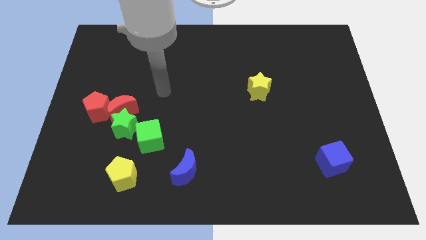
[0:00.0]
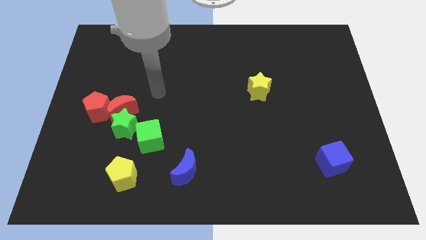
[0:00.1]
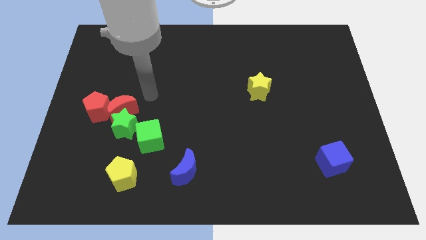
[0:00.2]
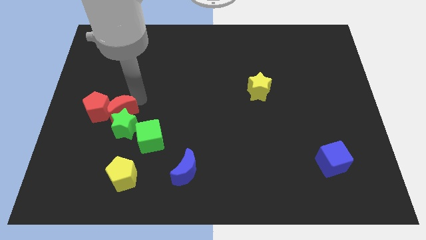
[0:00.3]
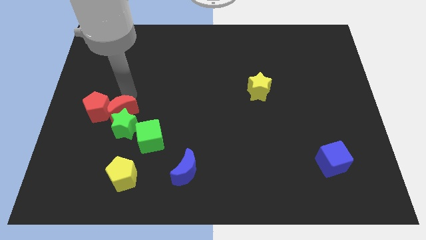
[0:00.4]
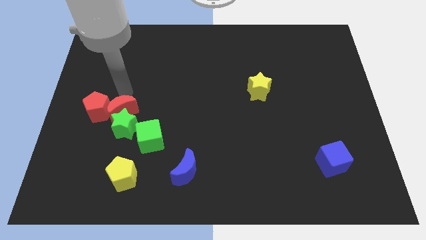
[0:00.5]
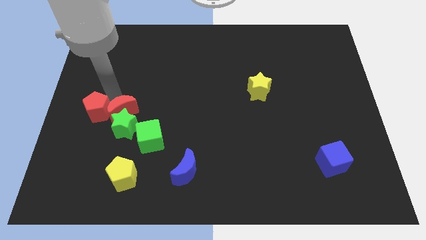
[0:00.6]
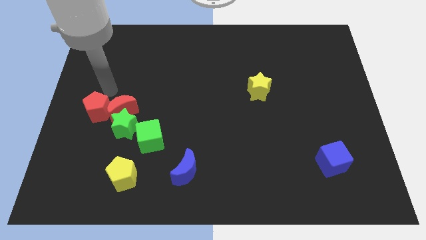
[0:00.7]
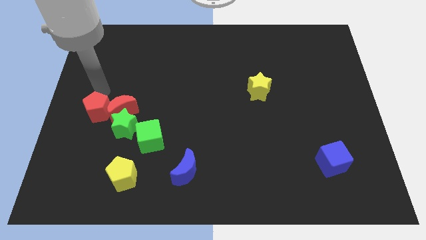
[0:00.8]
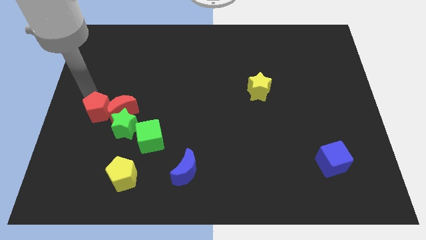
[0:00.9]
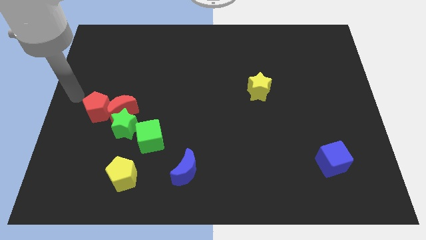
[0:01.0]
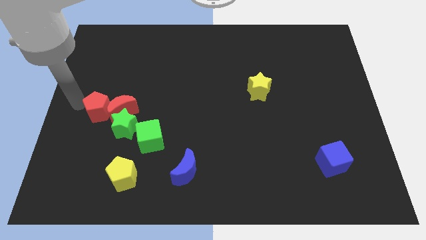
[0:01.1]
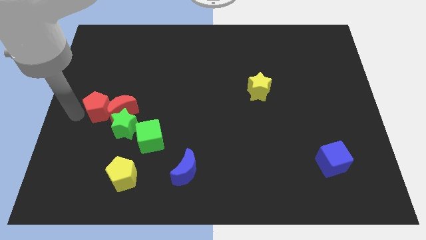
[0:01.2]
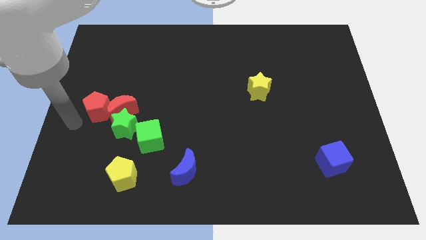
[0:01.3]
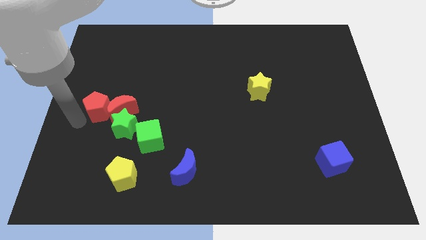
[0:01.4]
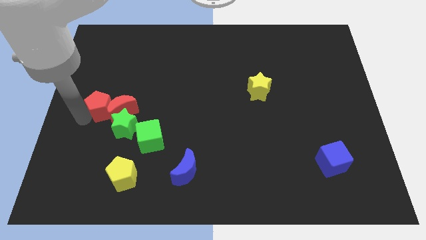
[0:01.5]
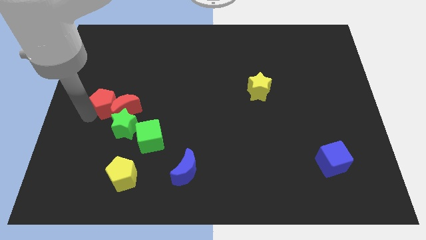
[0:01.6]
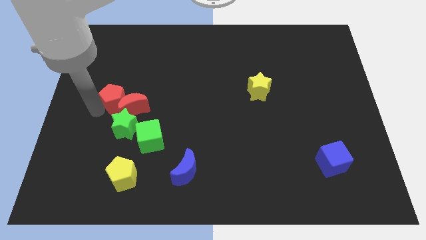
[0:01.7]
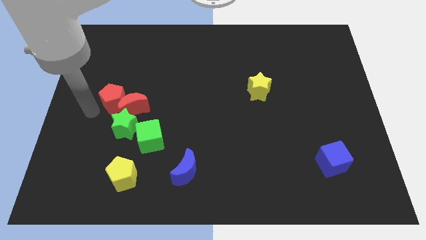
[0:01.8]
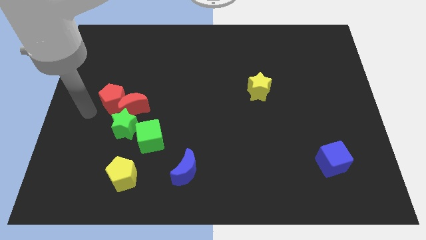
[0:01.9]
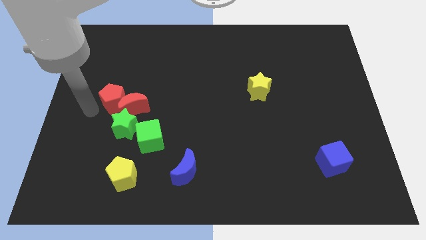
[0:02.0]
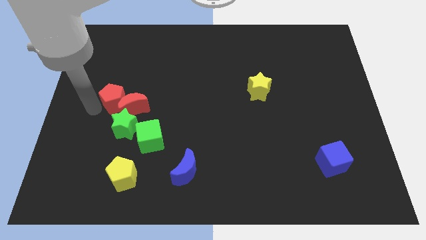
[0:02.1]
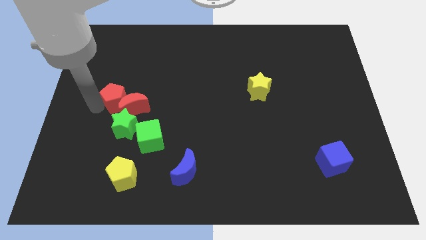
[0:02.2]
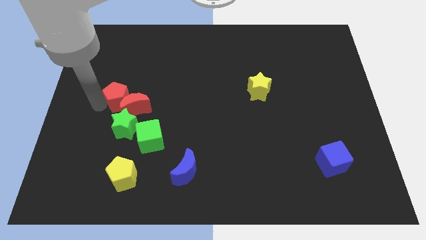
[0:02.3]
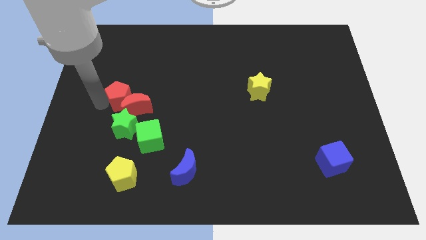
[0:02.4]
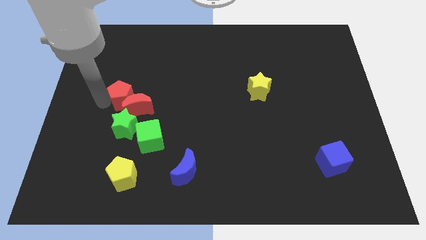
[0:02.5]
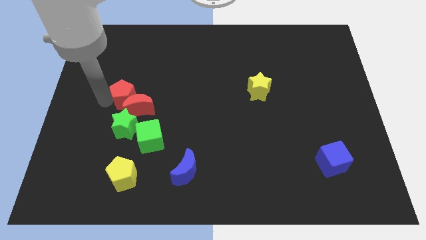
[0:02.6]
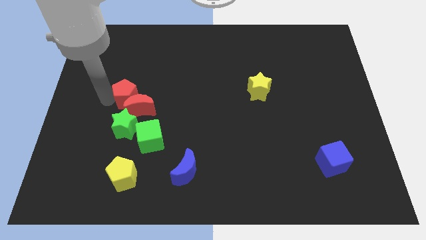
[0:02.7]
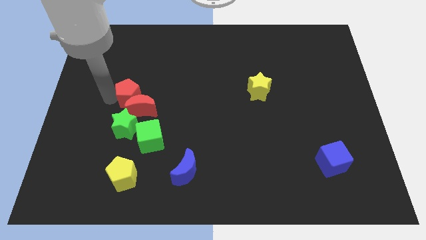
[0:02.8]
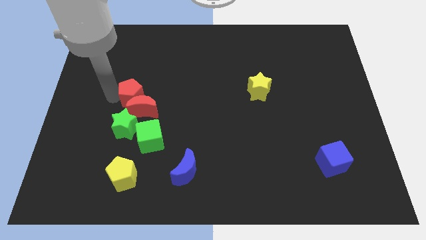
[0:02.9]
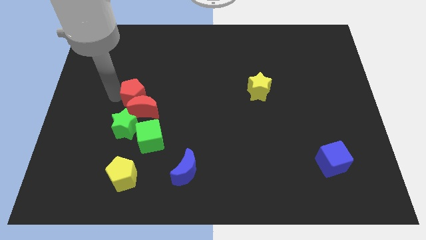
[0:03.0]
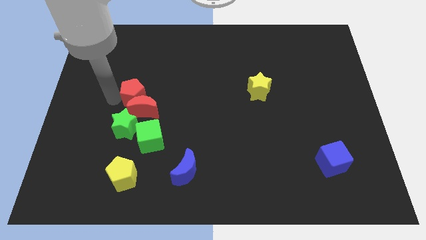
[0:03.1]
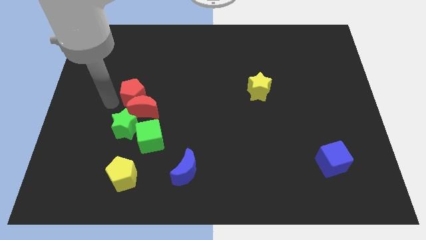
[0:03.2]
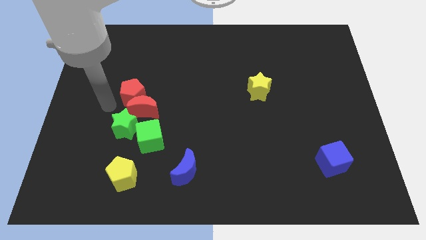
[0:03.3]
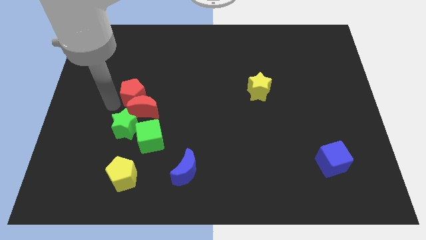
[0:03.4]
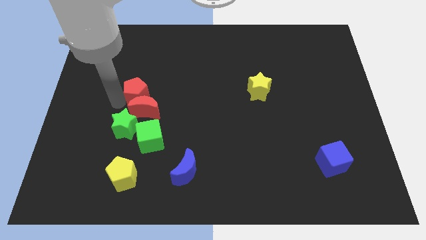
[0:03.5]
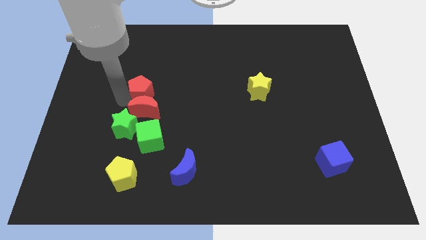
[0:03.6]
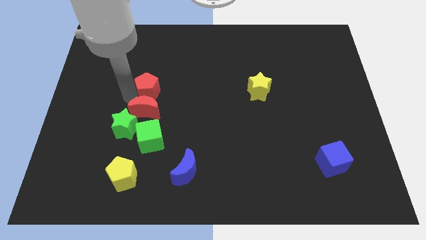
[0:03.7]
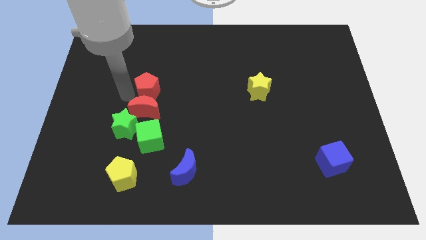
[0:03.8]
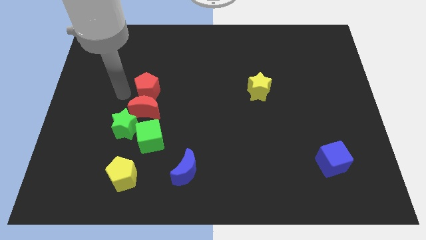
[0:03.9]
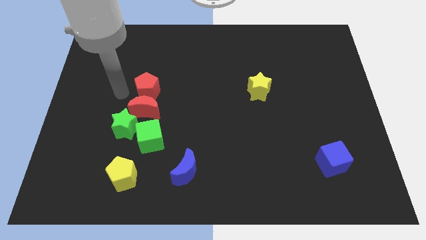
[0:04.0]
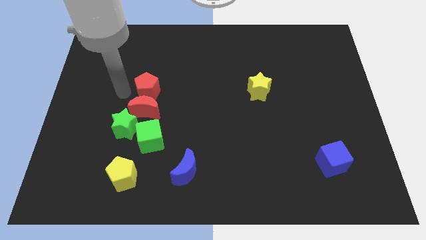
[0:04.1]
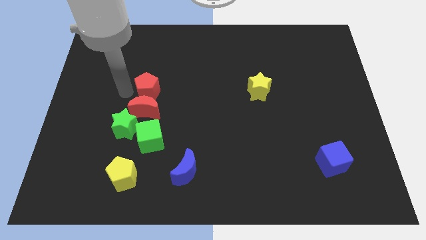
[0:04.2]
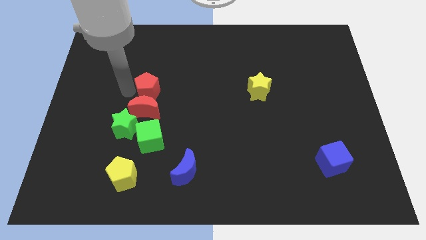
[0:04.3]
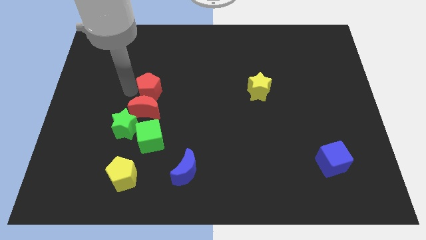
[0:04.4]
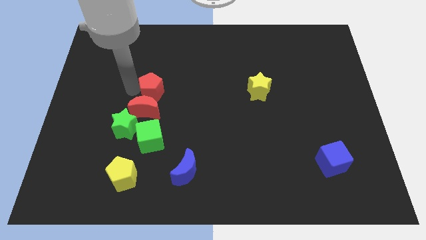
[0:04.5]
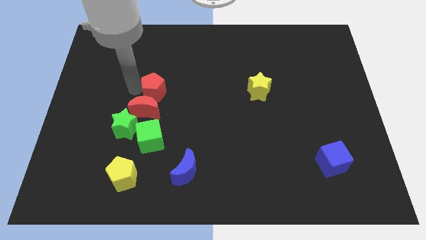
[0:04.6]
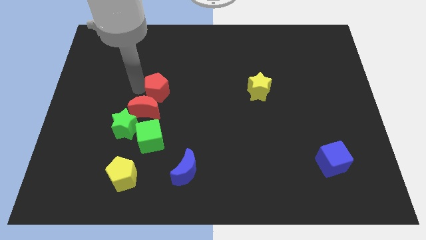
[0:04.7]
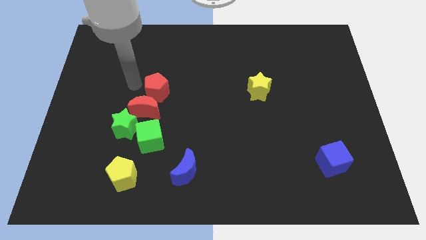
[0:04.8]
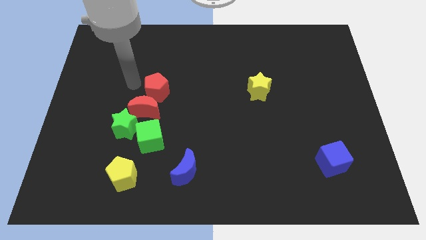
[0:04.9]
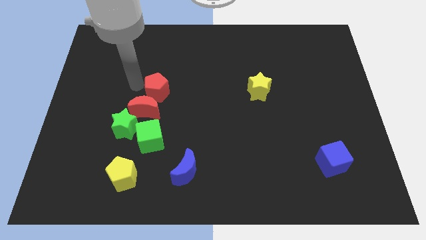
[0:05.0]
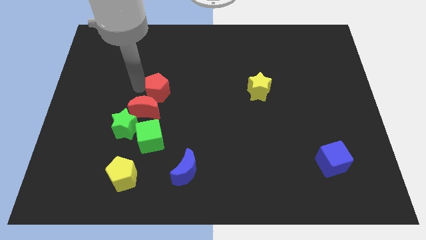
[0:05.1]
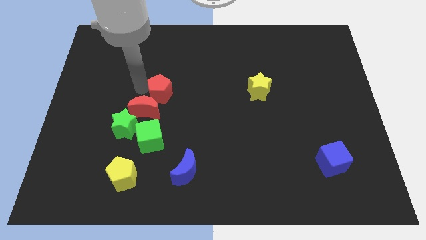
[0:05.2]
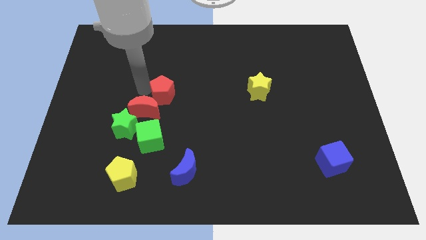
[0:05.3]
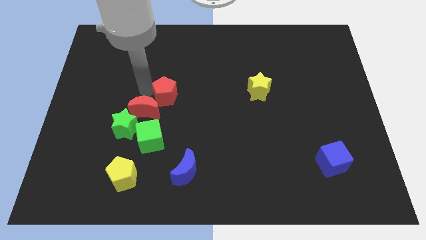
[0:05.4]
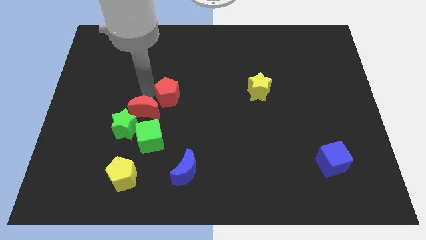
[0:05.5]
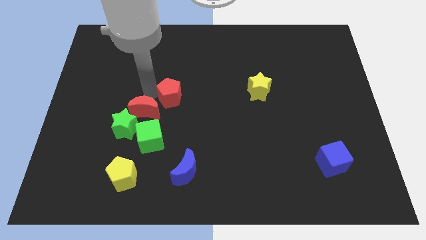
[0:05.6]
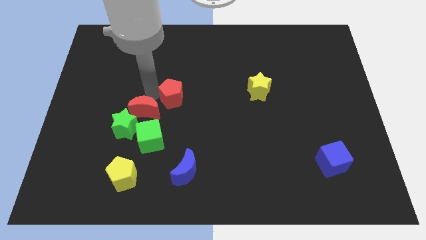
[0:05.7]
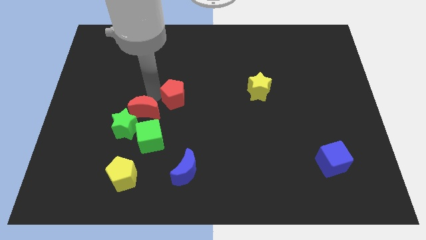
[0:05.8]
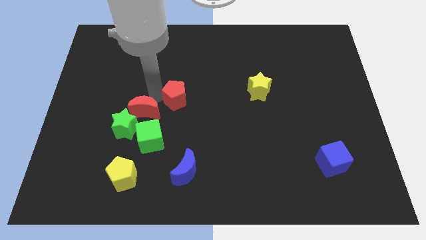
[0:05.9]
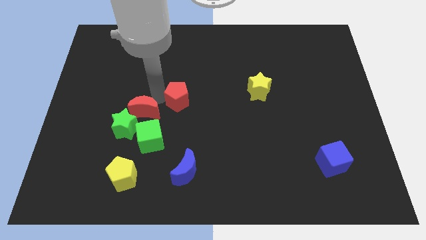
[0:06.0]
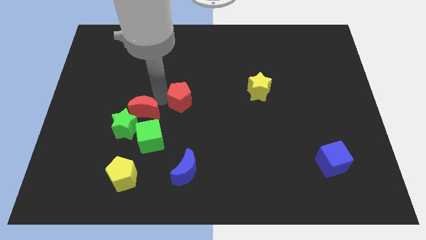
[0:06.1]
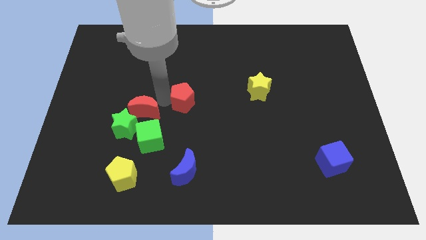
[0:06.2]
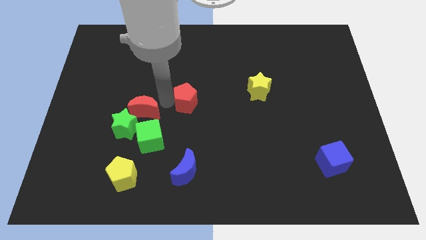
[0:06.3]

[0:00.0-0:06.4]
push the red pentagon to the right

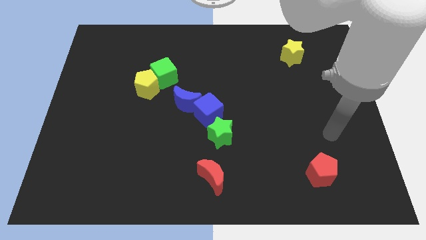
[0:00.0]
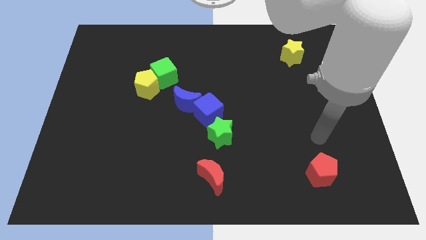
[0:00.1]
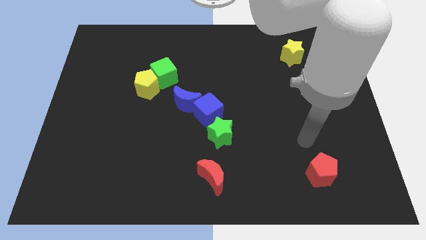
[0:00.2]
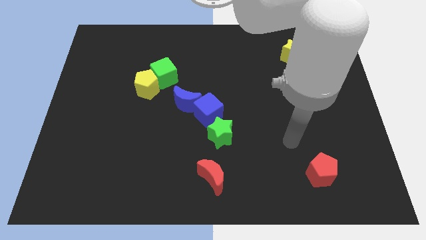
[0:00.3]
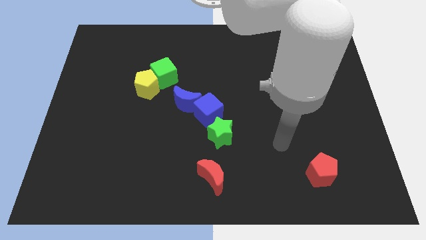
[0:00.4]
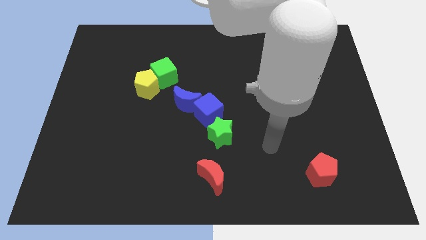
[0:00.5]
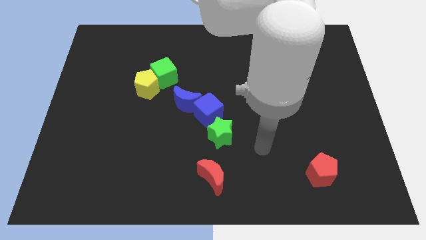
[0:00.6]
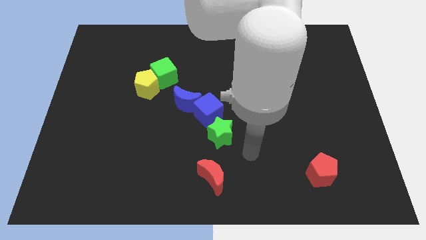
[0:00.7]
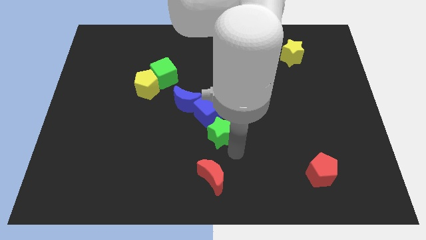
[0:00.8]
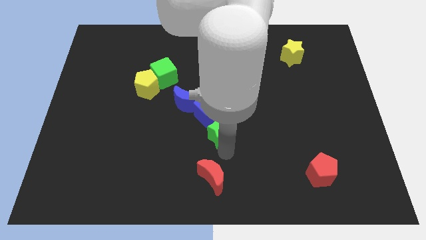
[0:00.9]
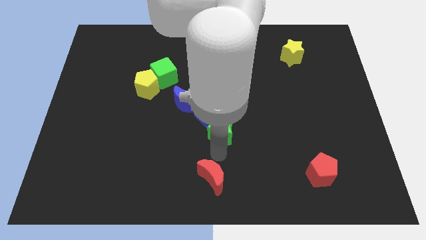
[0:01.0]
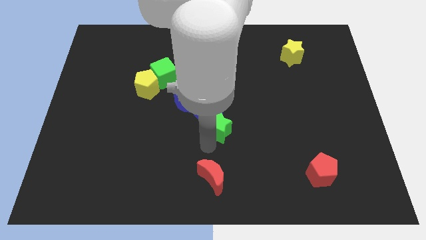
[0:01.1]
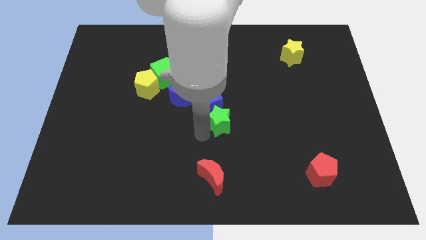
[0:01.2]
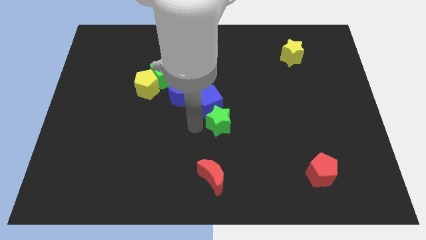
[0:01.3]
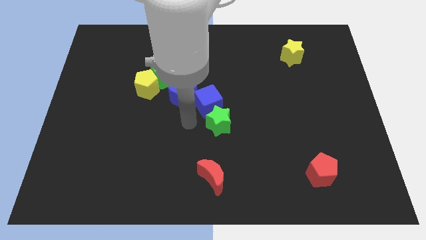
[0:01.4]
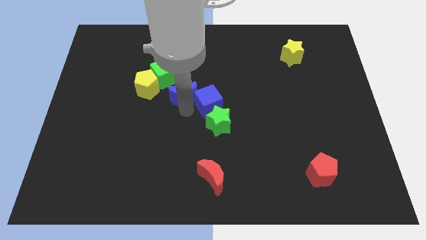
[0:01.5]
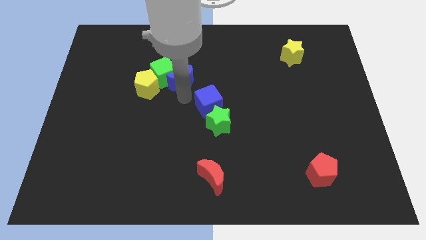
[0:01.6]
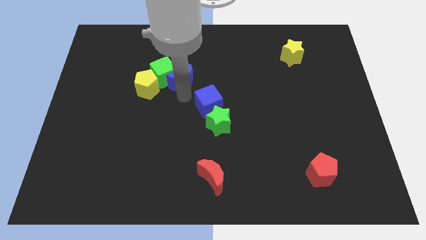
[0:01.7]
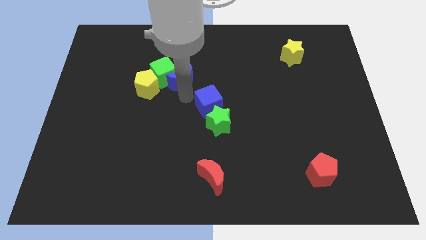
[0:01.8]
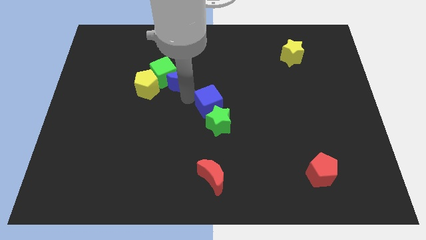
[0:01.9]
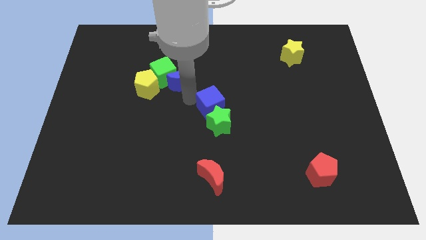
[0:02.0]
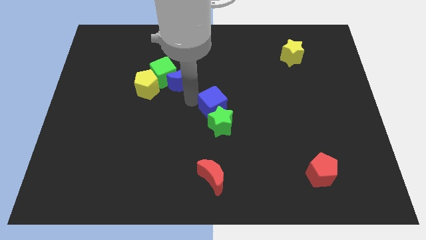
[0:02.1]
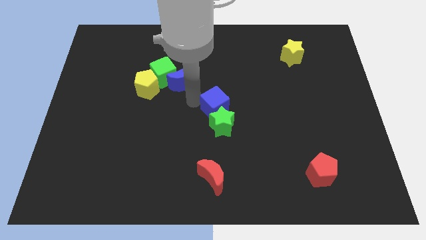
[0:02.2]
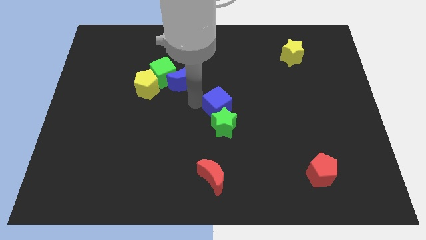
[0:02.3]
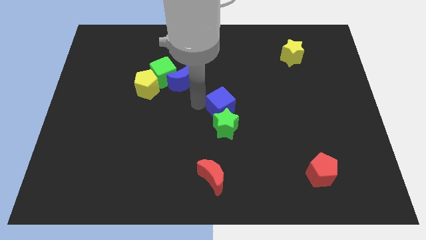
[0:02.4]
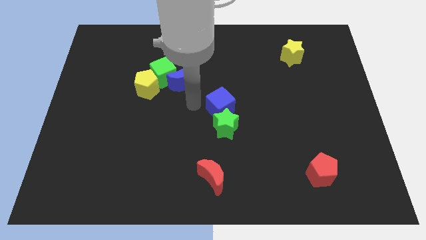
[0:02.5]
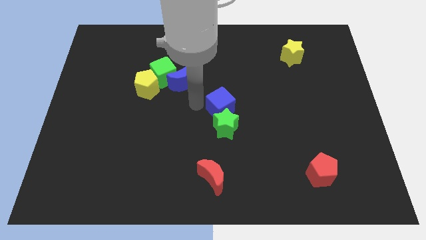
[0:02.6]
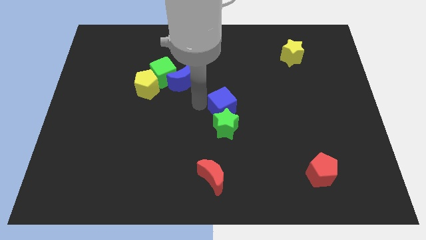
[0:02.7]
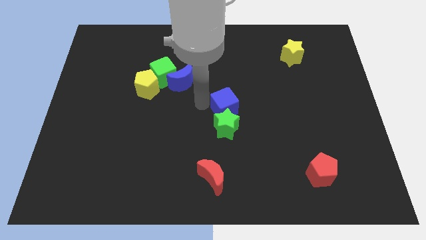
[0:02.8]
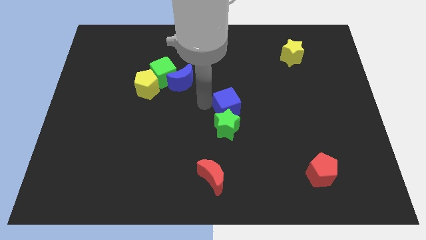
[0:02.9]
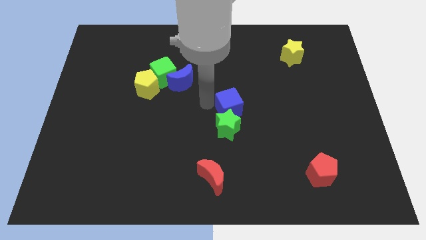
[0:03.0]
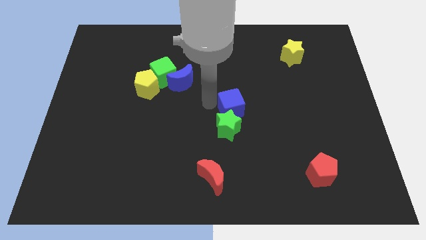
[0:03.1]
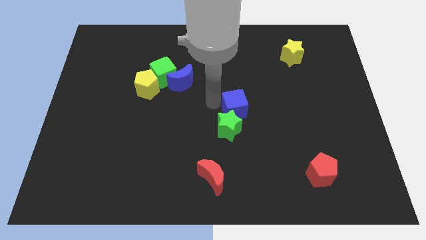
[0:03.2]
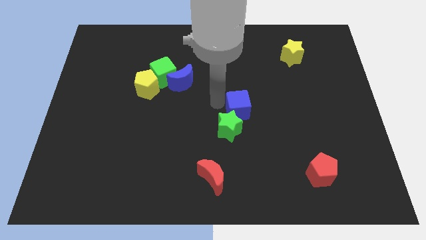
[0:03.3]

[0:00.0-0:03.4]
push the blue cube a little to the right
